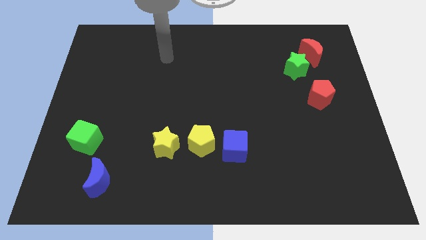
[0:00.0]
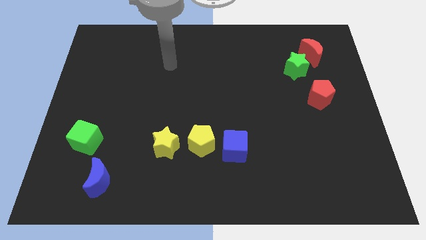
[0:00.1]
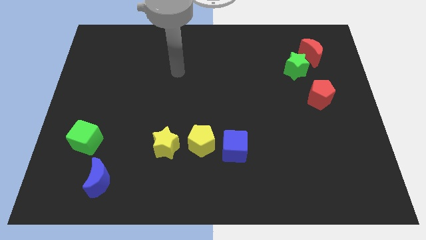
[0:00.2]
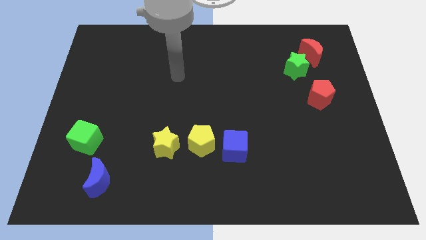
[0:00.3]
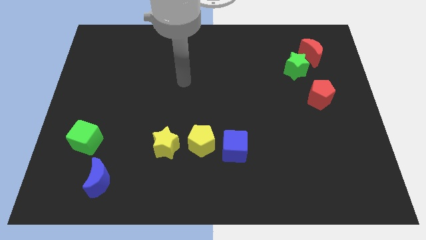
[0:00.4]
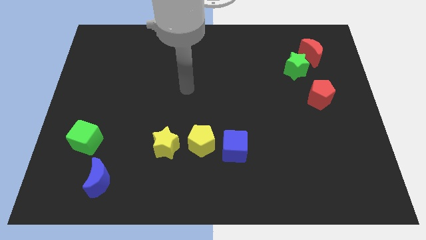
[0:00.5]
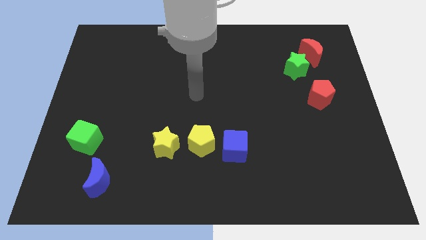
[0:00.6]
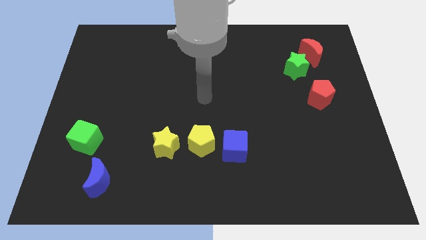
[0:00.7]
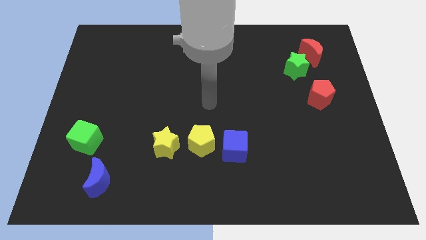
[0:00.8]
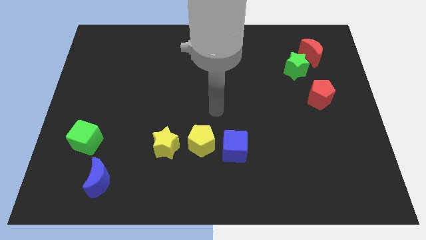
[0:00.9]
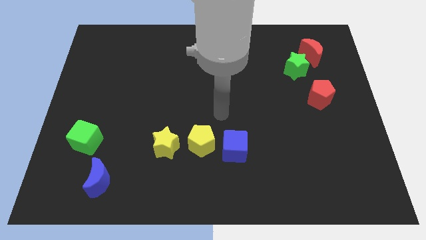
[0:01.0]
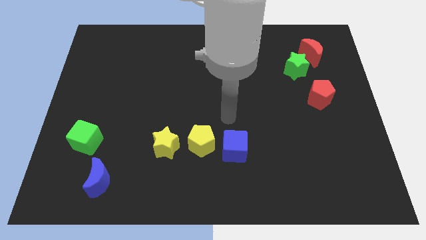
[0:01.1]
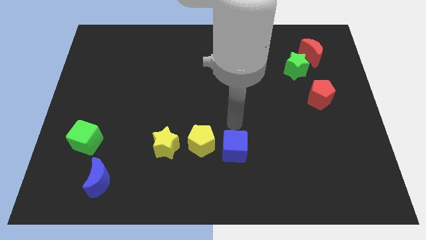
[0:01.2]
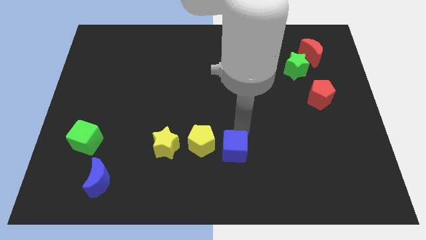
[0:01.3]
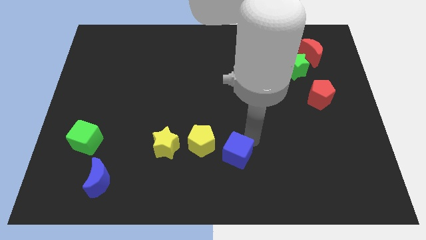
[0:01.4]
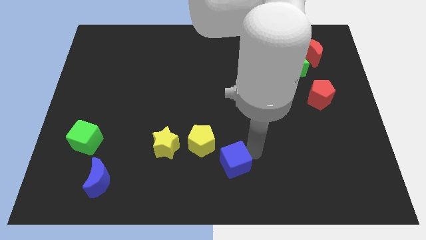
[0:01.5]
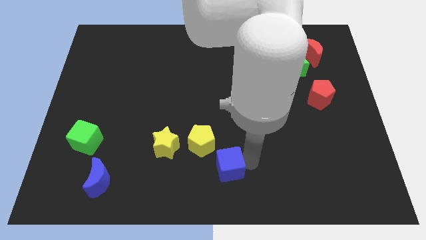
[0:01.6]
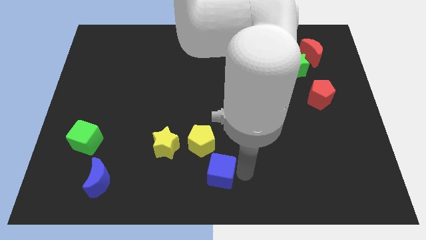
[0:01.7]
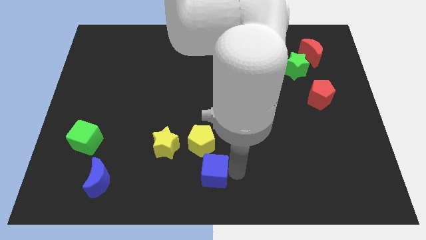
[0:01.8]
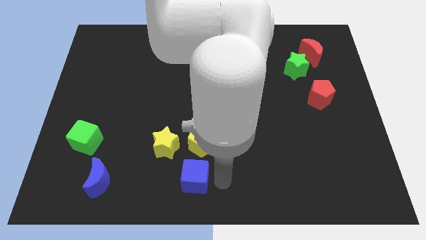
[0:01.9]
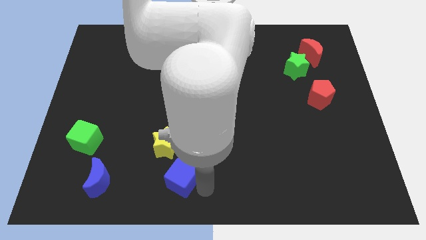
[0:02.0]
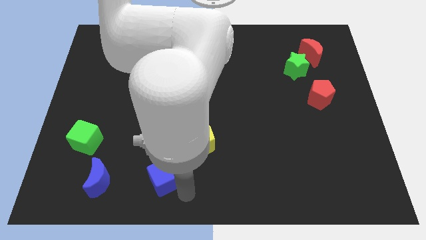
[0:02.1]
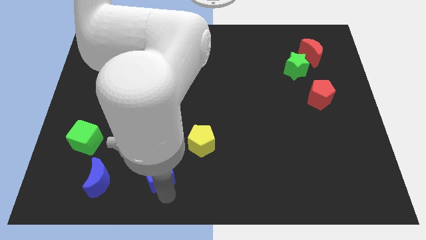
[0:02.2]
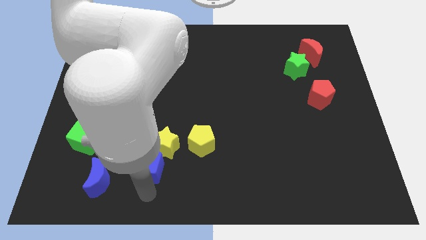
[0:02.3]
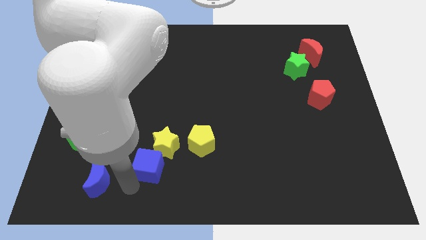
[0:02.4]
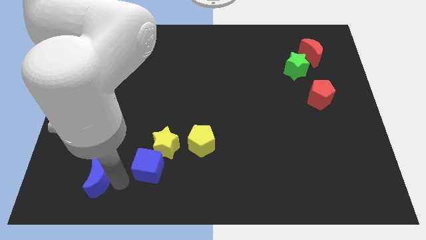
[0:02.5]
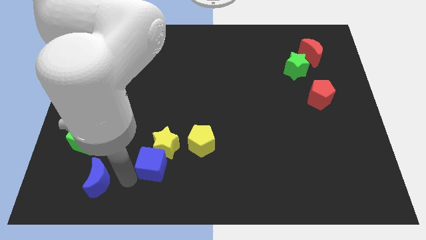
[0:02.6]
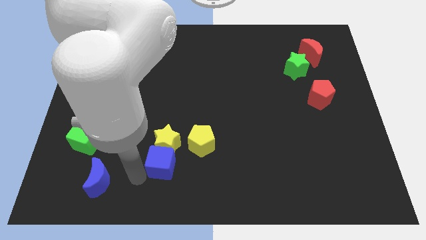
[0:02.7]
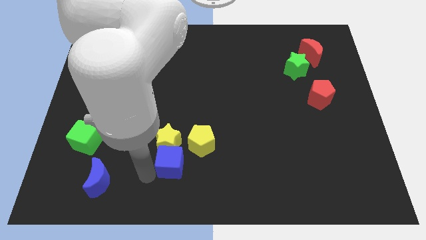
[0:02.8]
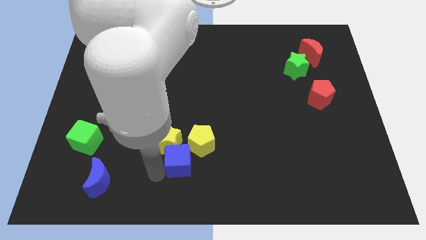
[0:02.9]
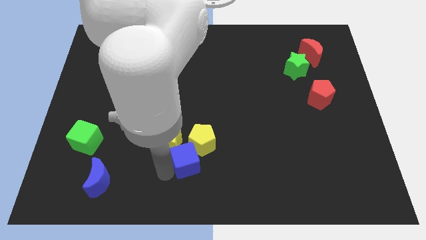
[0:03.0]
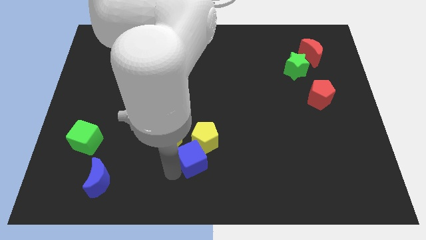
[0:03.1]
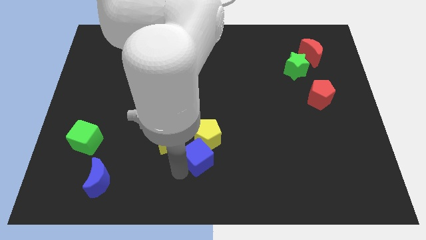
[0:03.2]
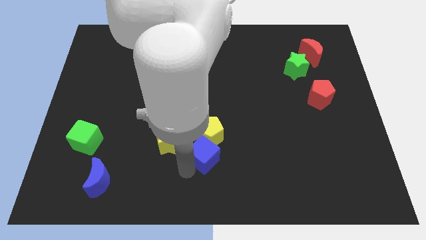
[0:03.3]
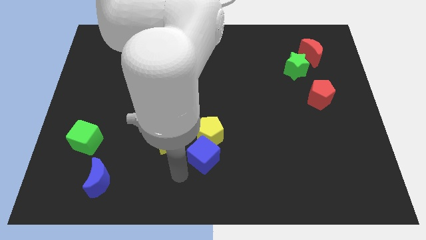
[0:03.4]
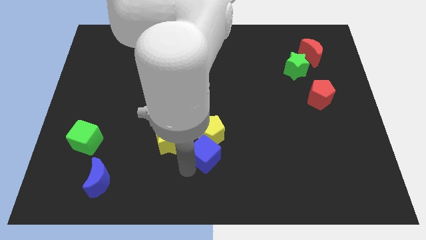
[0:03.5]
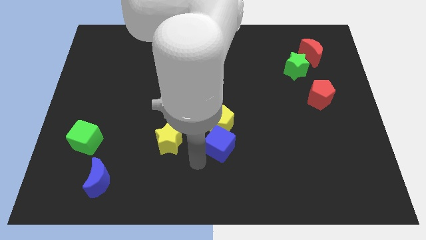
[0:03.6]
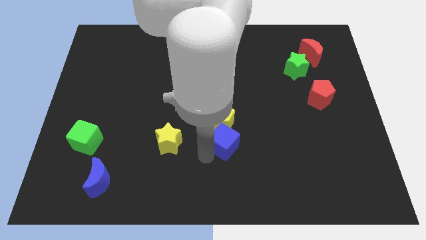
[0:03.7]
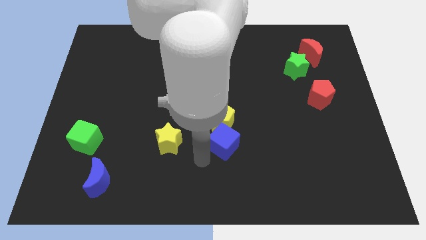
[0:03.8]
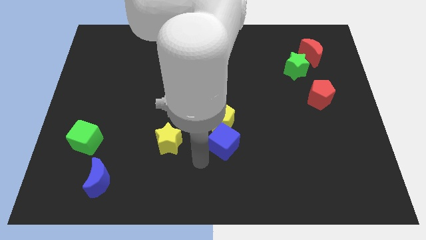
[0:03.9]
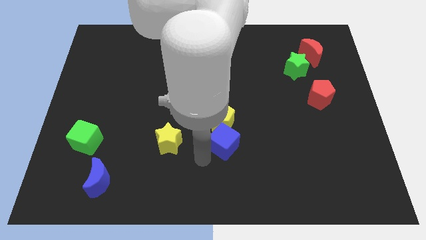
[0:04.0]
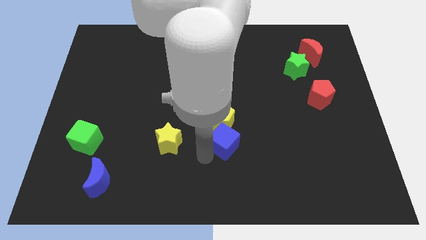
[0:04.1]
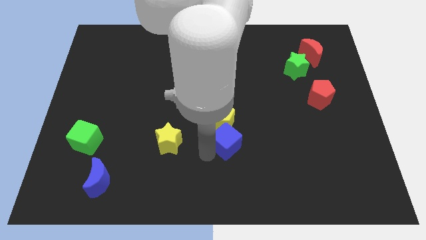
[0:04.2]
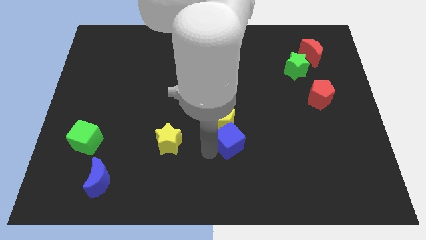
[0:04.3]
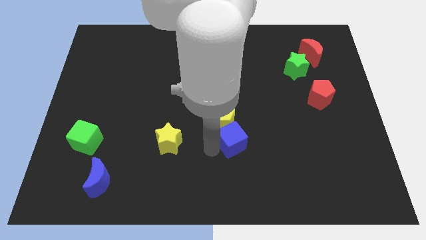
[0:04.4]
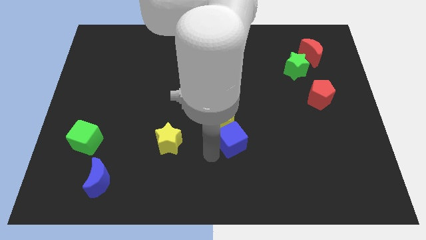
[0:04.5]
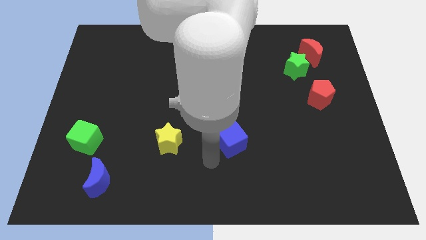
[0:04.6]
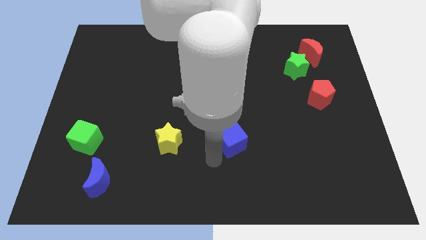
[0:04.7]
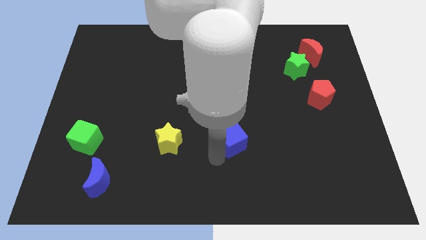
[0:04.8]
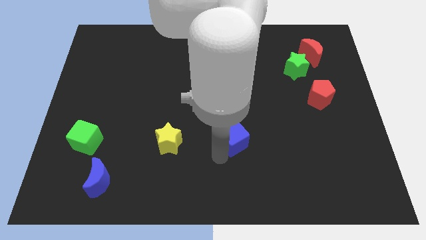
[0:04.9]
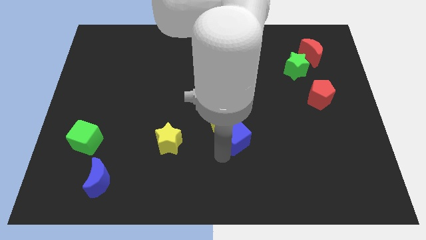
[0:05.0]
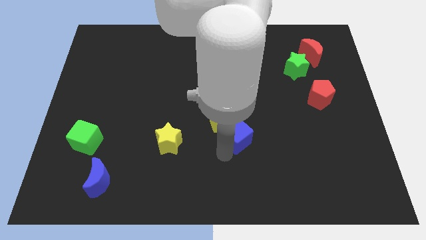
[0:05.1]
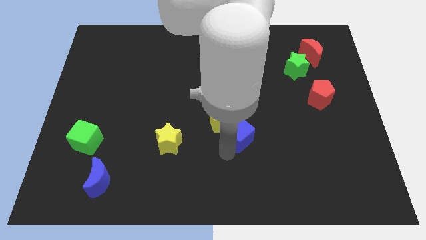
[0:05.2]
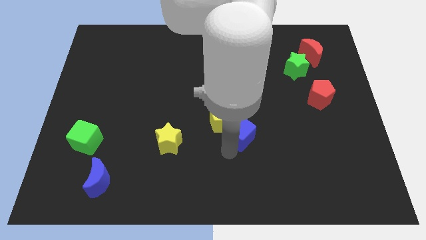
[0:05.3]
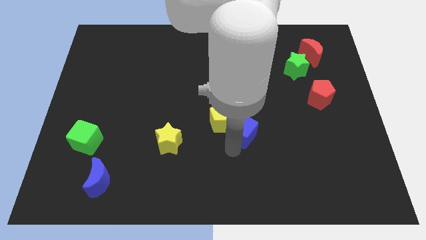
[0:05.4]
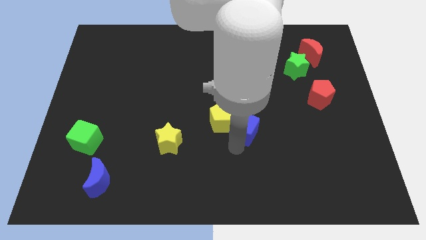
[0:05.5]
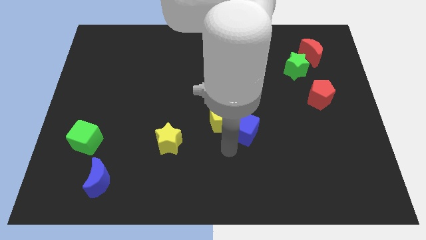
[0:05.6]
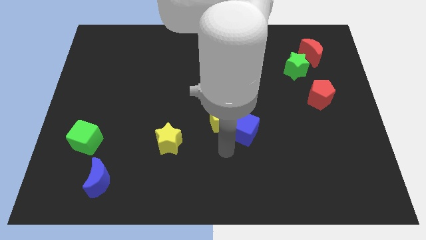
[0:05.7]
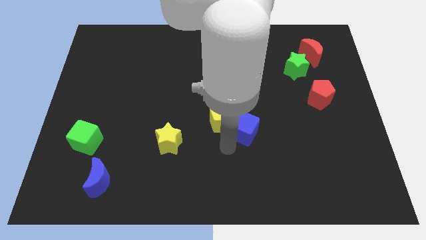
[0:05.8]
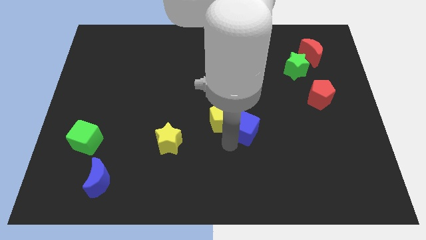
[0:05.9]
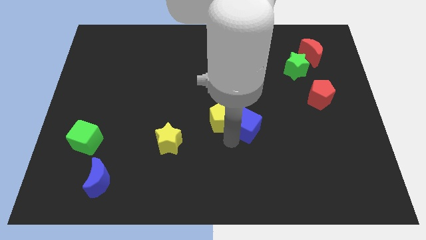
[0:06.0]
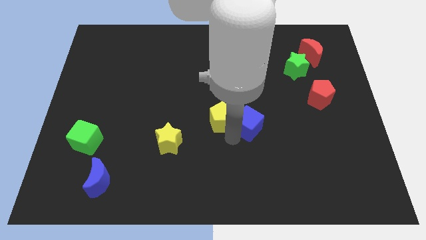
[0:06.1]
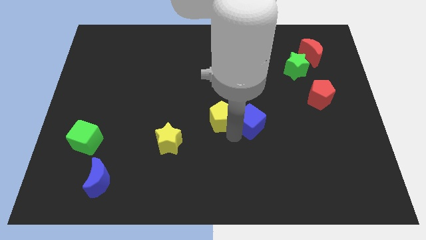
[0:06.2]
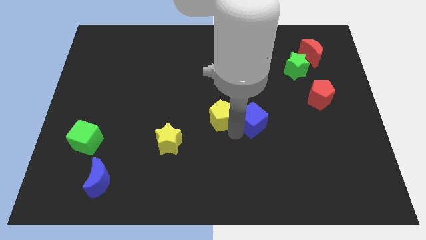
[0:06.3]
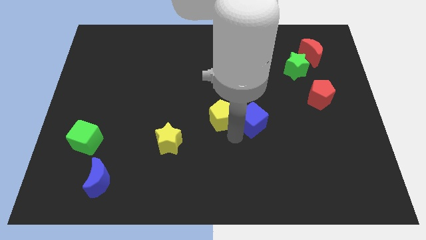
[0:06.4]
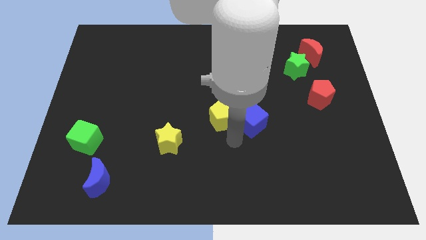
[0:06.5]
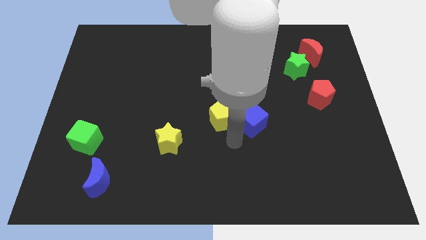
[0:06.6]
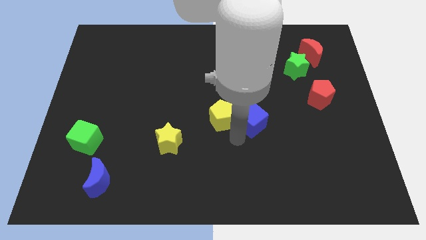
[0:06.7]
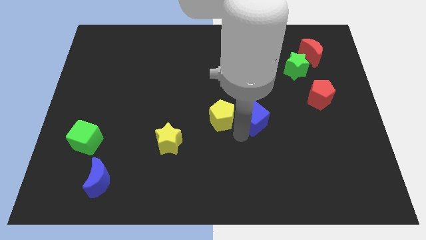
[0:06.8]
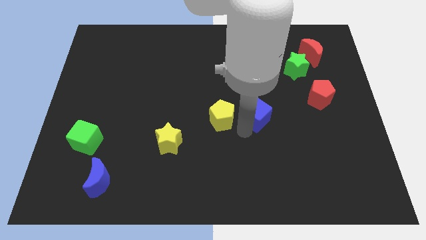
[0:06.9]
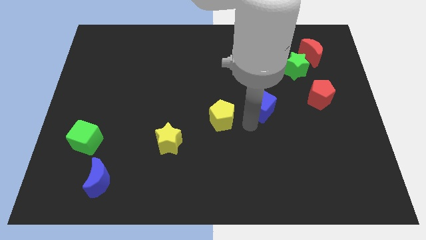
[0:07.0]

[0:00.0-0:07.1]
put the blue cube to the left side of the red pentagon

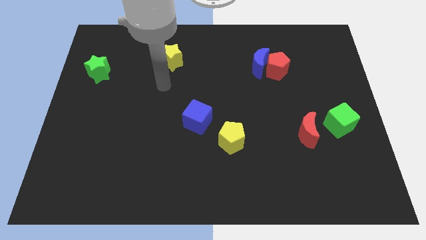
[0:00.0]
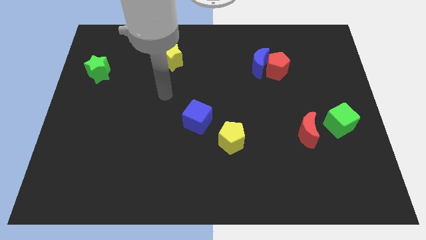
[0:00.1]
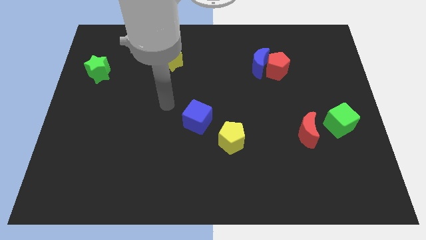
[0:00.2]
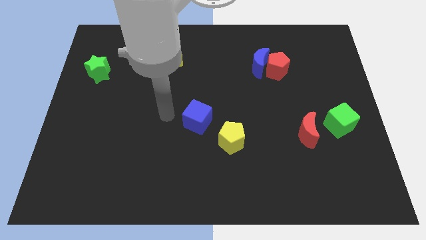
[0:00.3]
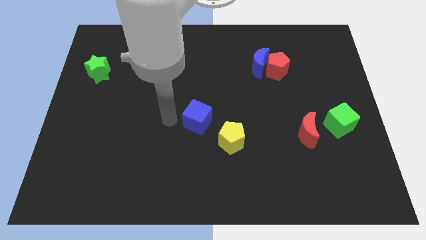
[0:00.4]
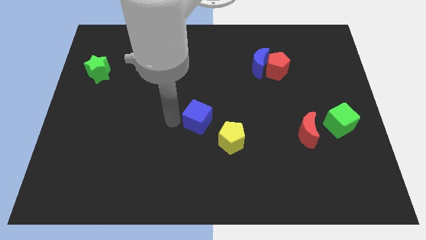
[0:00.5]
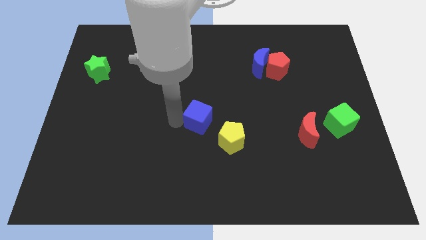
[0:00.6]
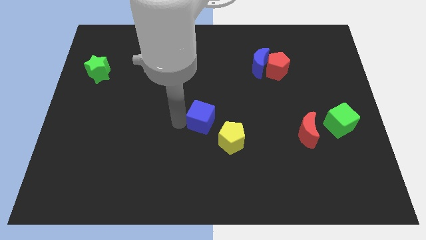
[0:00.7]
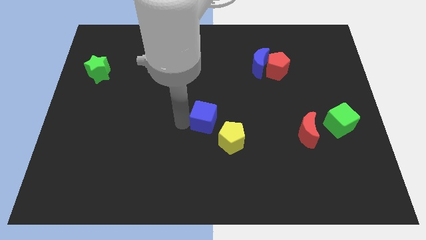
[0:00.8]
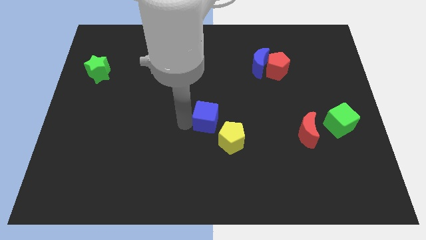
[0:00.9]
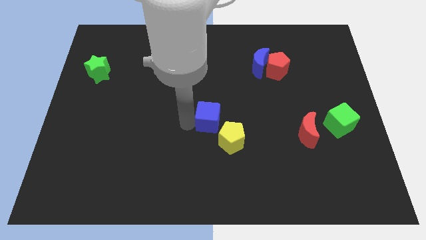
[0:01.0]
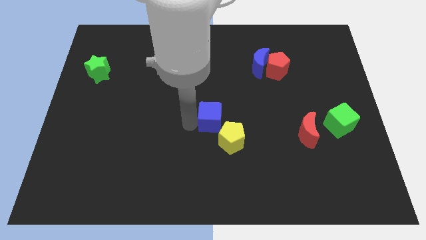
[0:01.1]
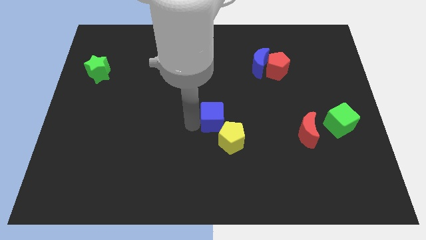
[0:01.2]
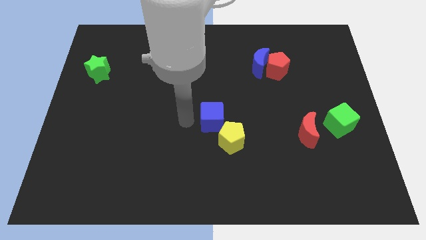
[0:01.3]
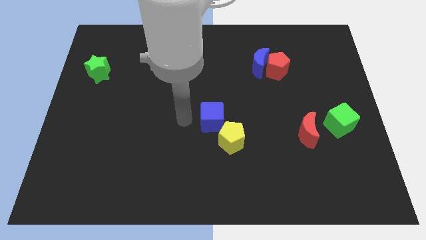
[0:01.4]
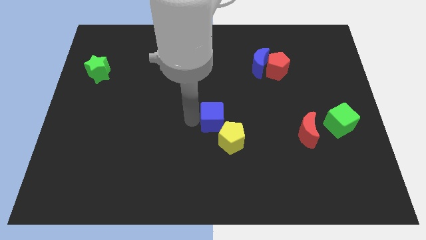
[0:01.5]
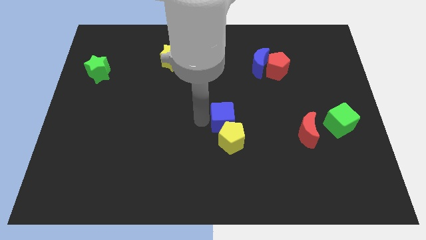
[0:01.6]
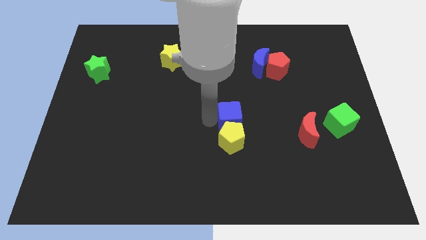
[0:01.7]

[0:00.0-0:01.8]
put the blue cube to the top right side of the yellow pentagon
